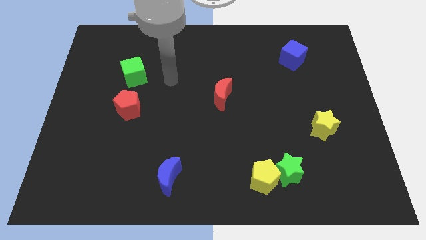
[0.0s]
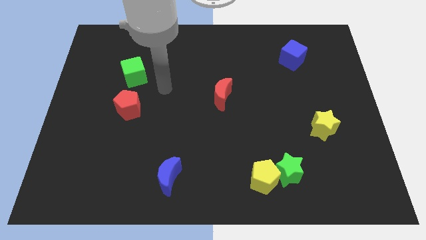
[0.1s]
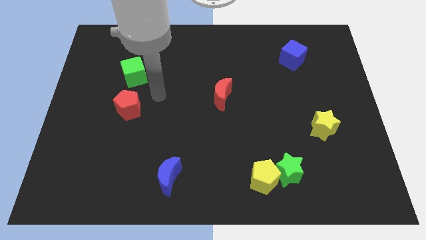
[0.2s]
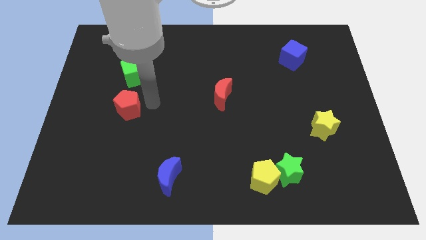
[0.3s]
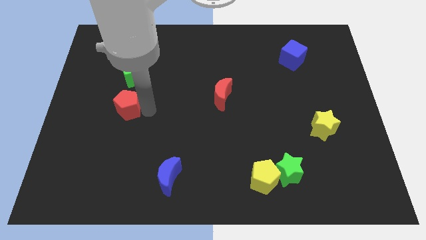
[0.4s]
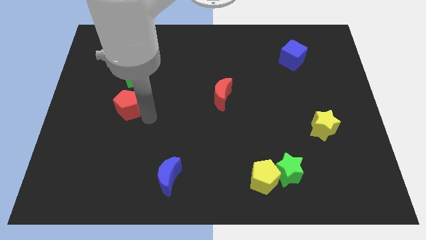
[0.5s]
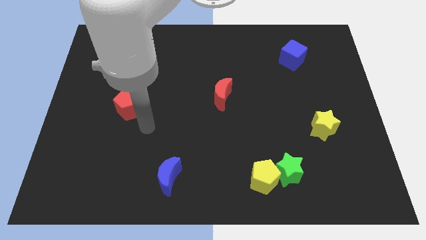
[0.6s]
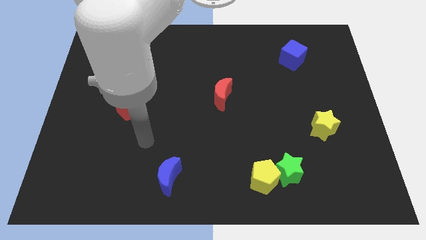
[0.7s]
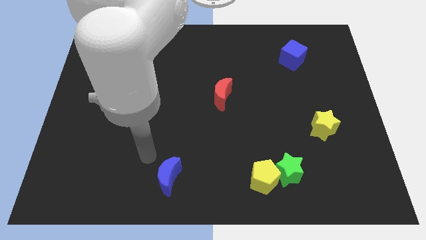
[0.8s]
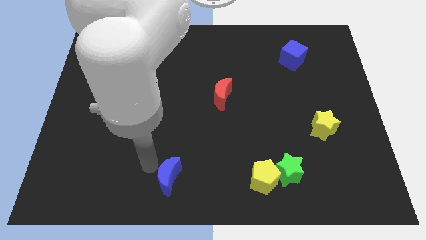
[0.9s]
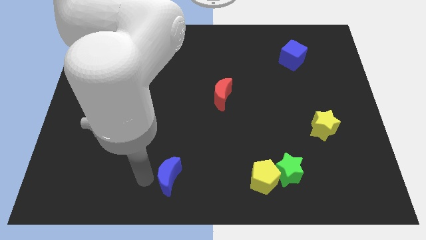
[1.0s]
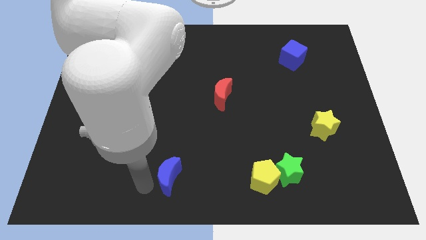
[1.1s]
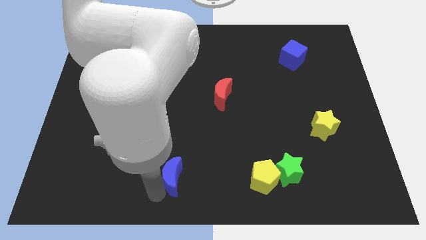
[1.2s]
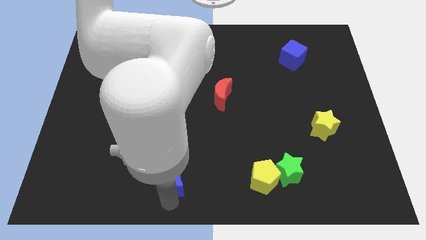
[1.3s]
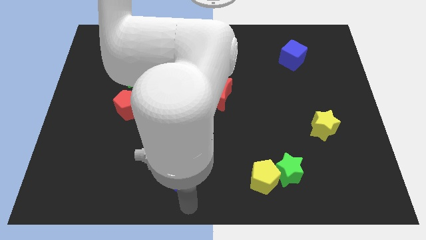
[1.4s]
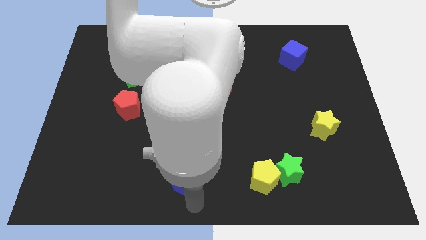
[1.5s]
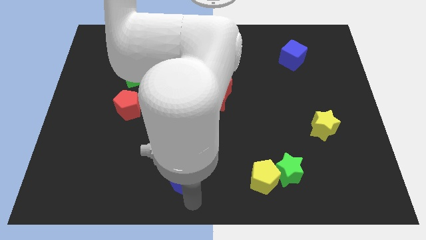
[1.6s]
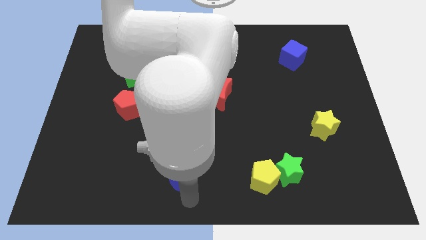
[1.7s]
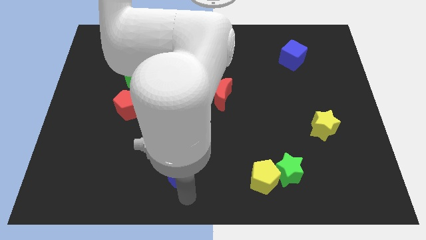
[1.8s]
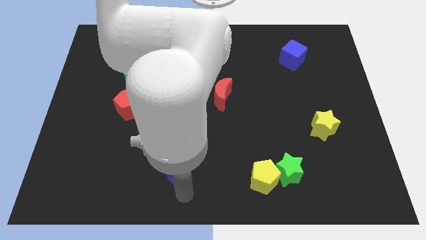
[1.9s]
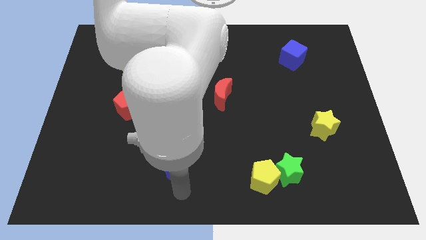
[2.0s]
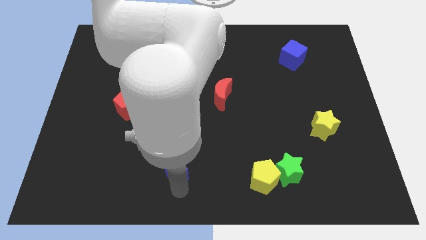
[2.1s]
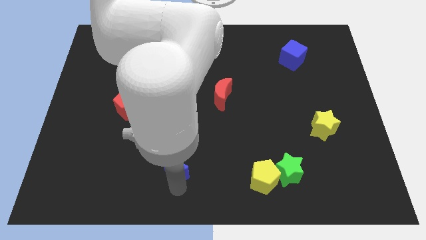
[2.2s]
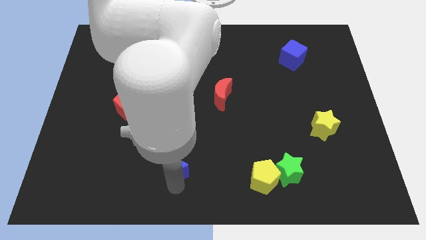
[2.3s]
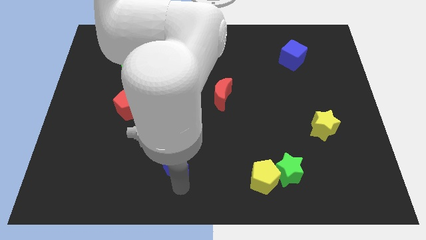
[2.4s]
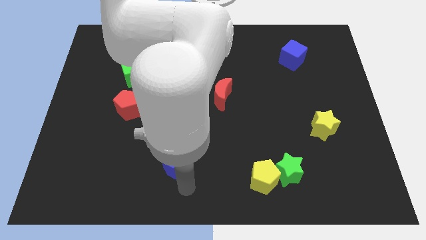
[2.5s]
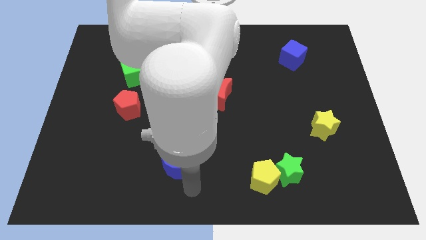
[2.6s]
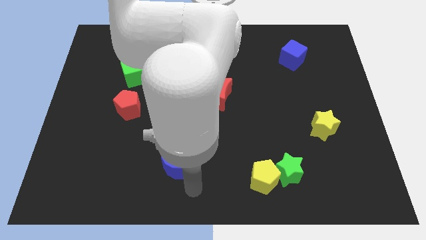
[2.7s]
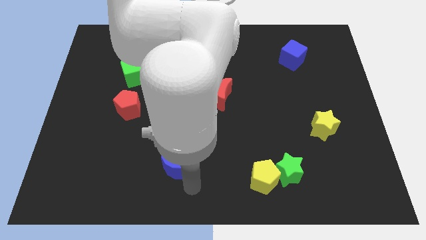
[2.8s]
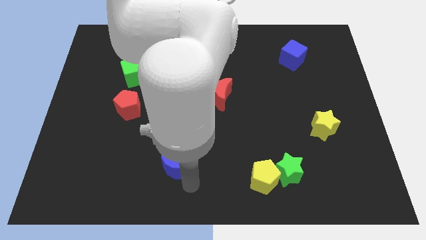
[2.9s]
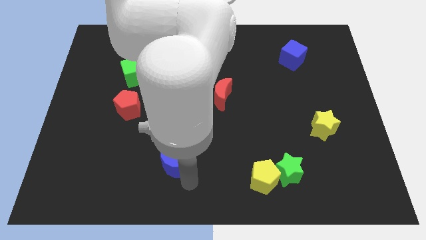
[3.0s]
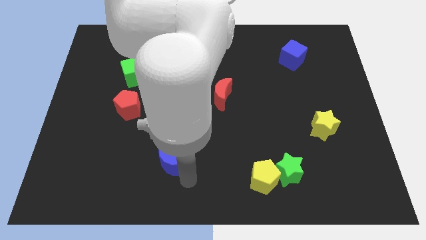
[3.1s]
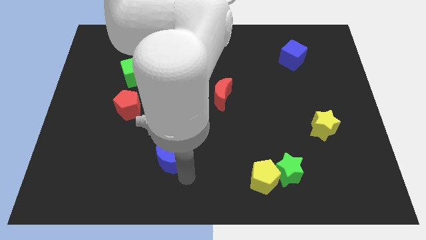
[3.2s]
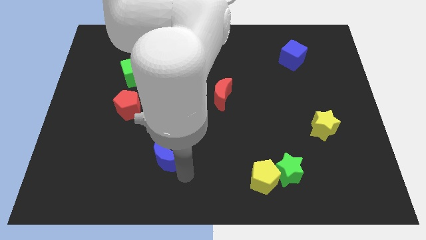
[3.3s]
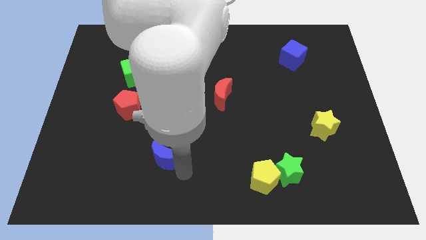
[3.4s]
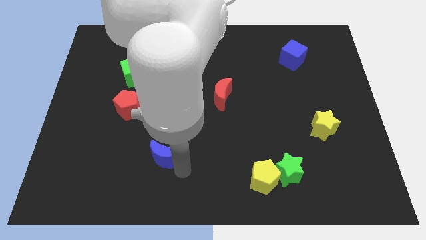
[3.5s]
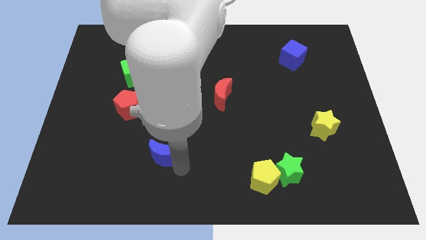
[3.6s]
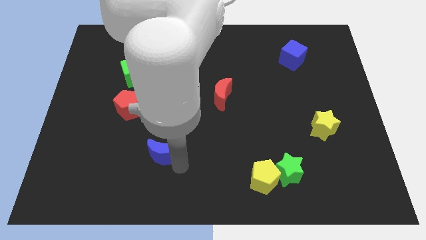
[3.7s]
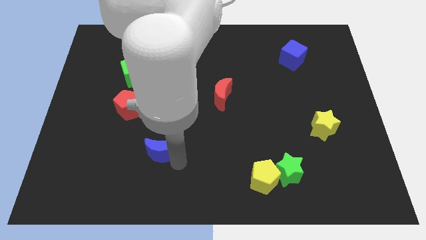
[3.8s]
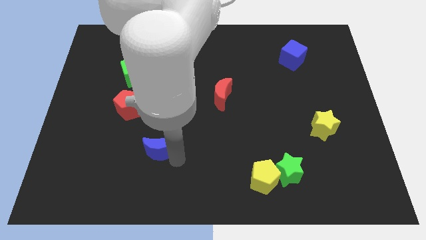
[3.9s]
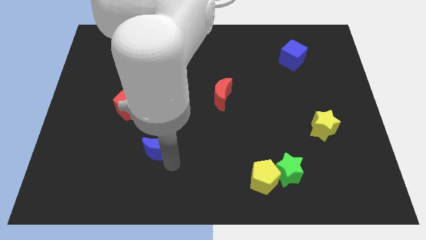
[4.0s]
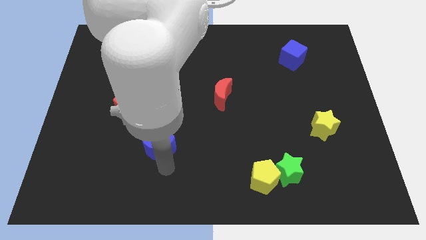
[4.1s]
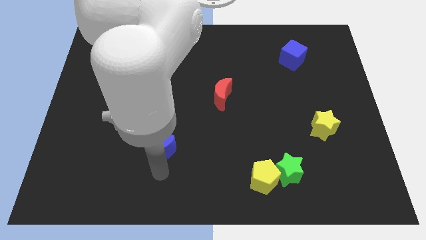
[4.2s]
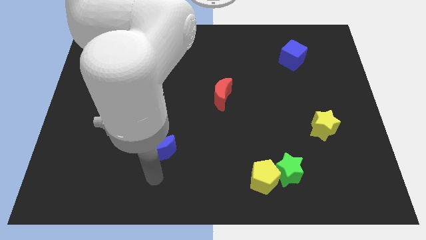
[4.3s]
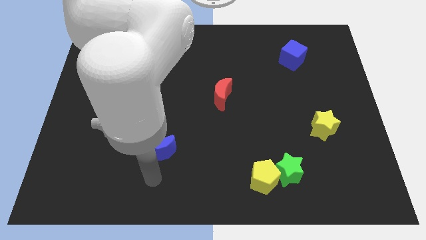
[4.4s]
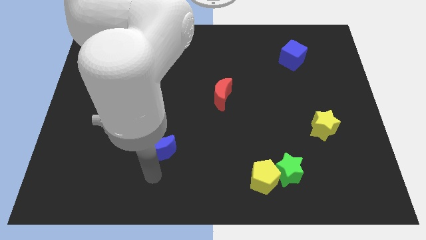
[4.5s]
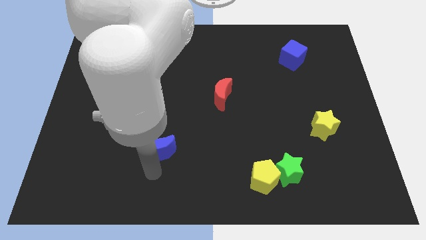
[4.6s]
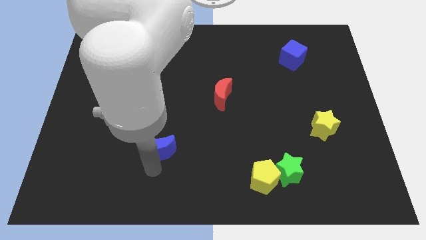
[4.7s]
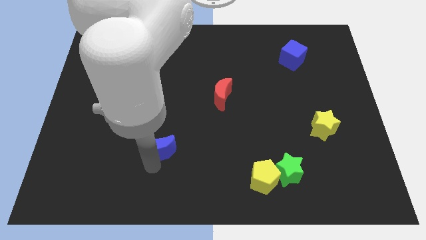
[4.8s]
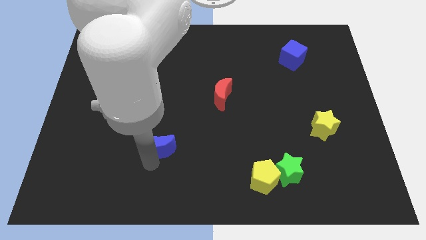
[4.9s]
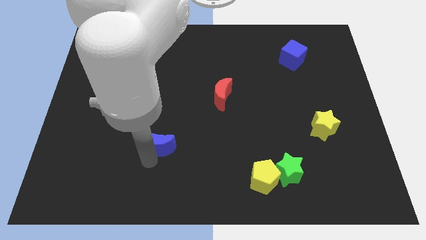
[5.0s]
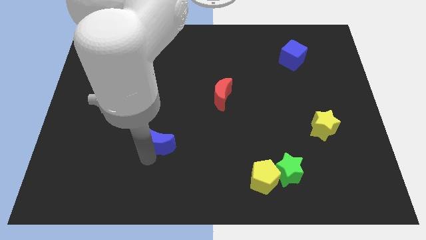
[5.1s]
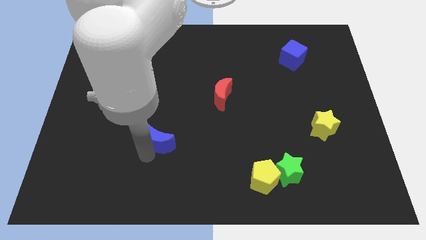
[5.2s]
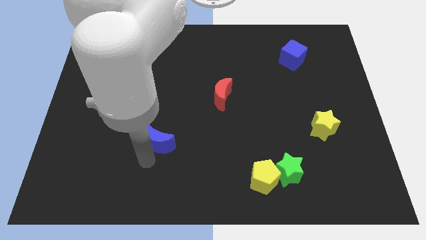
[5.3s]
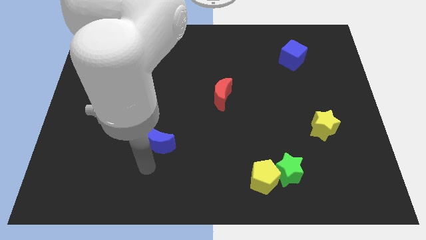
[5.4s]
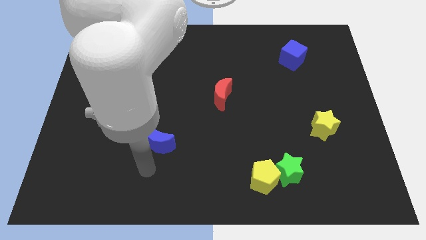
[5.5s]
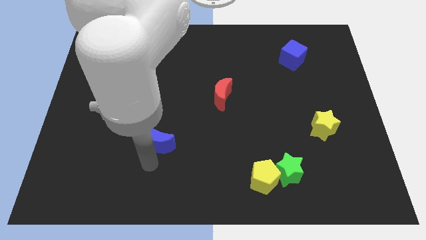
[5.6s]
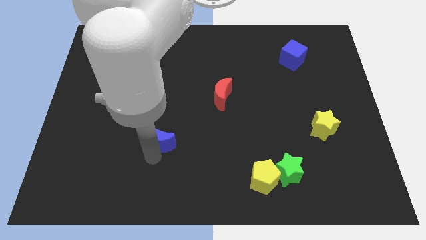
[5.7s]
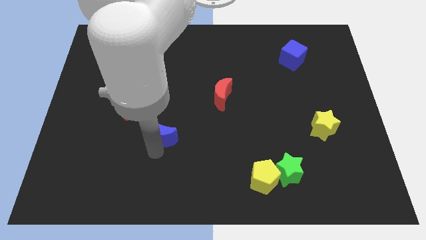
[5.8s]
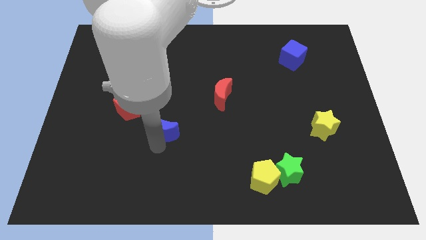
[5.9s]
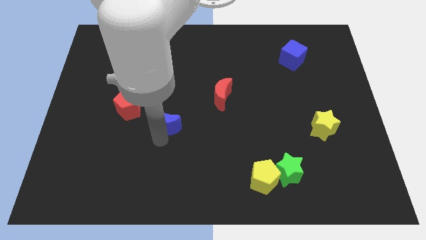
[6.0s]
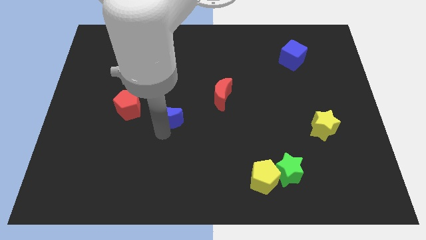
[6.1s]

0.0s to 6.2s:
put the blue moon to the right side of the red pentagon

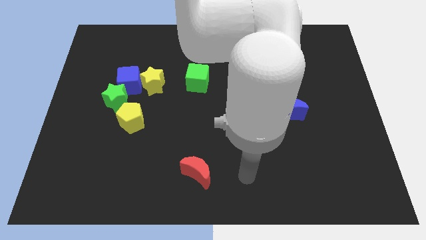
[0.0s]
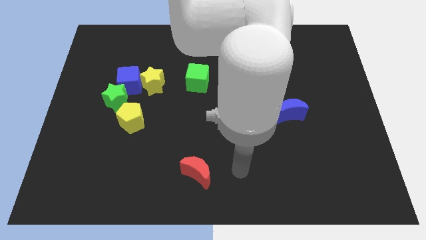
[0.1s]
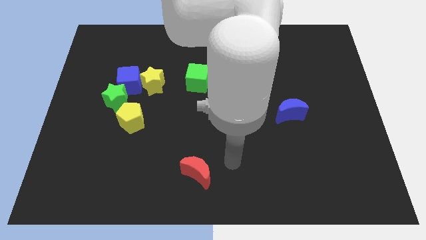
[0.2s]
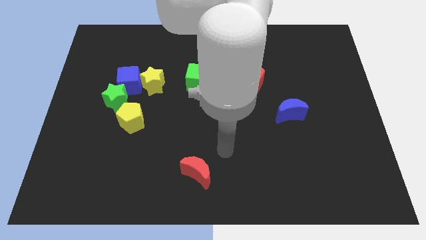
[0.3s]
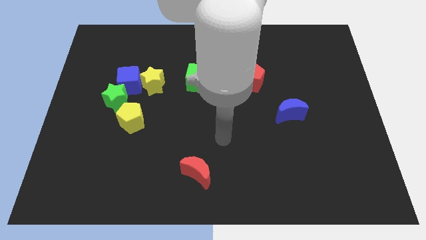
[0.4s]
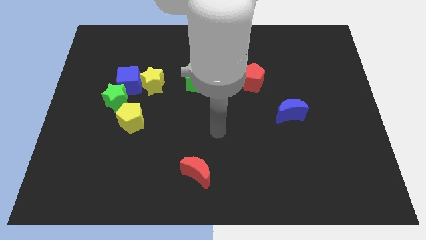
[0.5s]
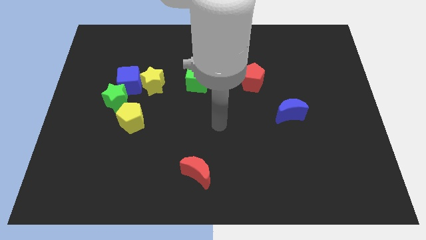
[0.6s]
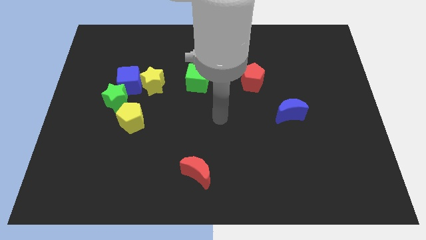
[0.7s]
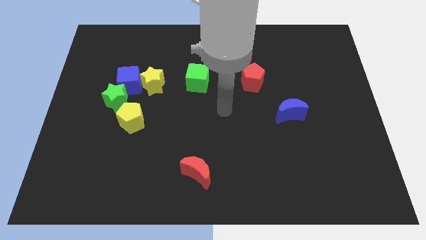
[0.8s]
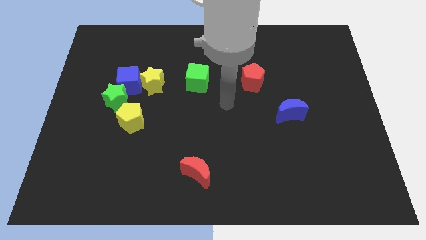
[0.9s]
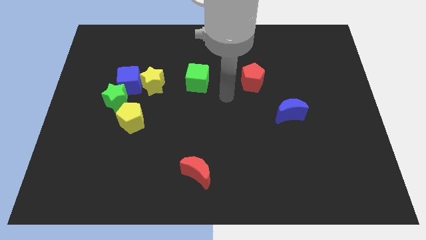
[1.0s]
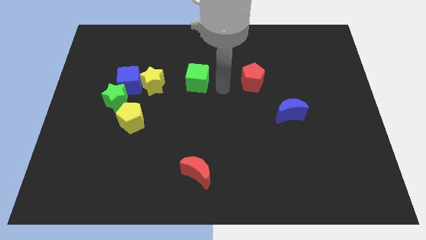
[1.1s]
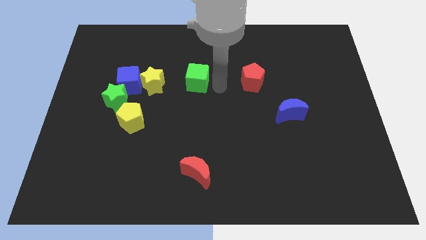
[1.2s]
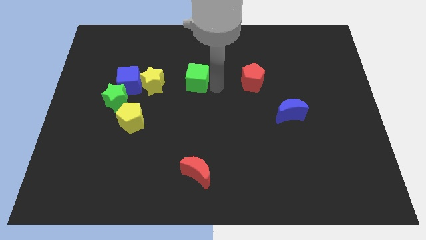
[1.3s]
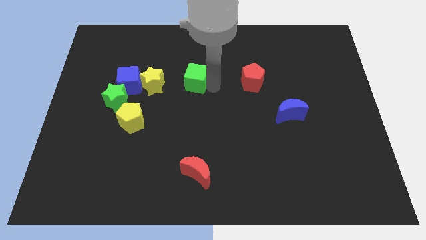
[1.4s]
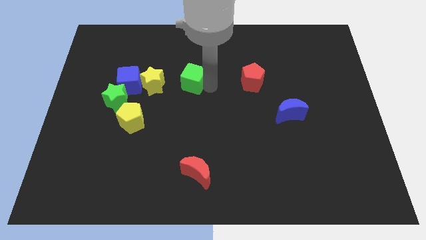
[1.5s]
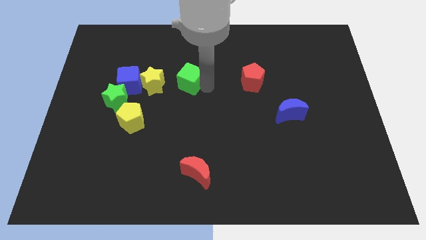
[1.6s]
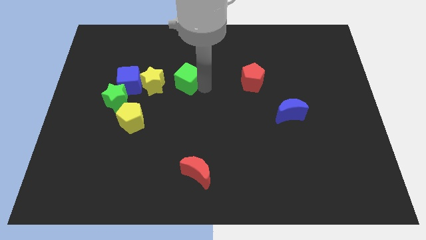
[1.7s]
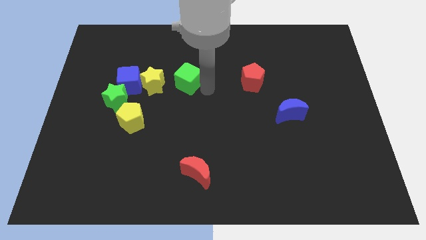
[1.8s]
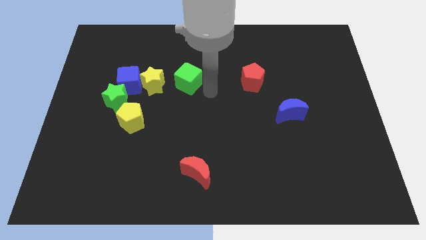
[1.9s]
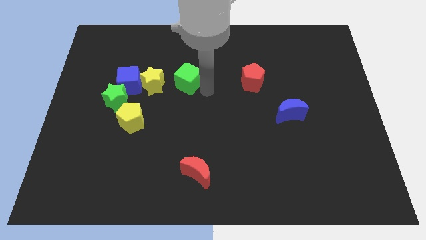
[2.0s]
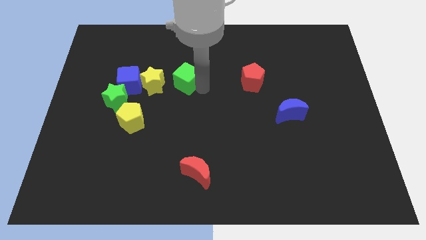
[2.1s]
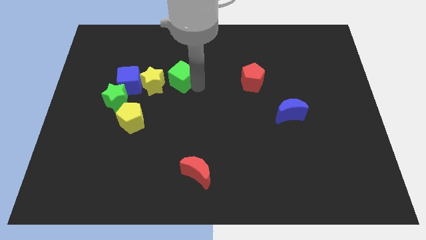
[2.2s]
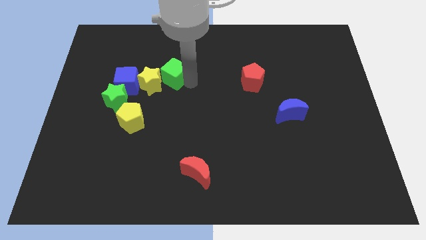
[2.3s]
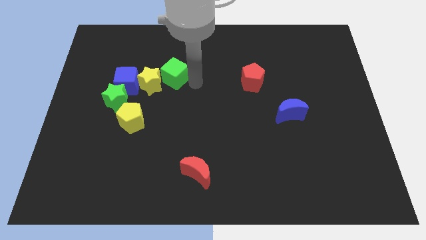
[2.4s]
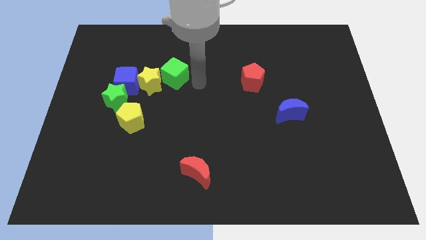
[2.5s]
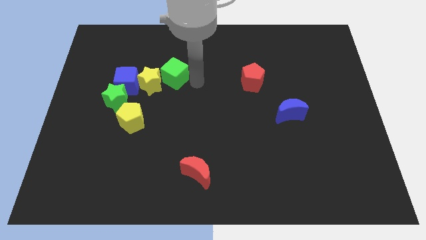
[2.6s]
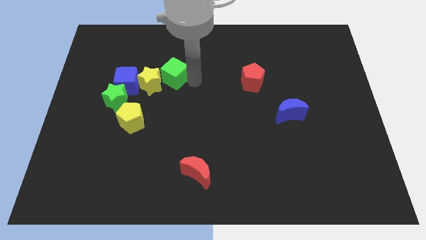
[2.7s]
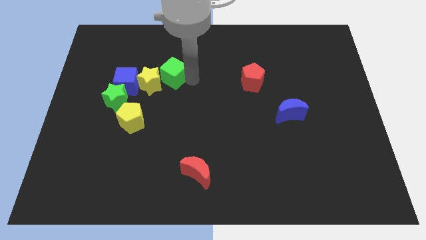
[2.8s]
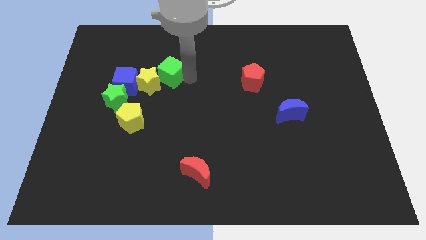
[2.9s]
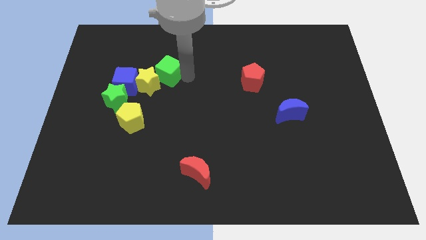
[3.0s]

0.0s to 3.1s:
put the green cube diagonally up and to the right of the blue cube
